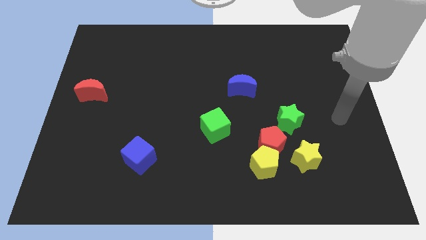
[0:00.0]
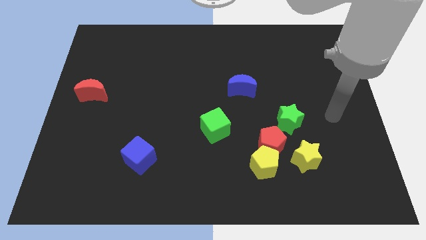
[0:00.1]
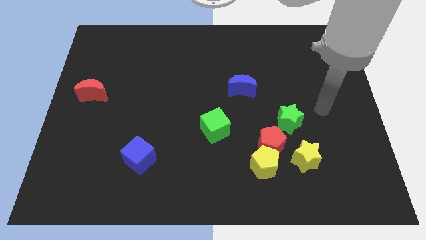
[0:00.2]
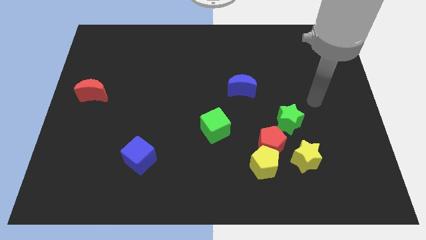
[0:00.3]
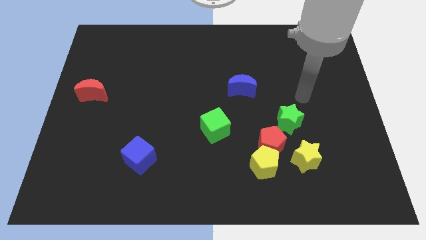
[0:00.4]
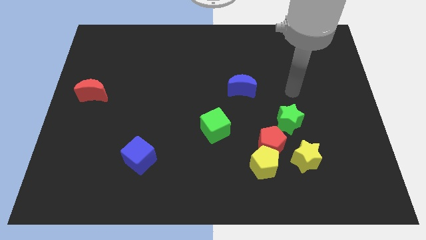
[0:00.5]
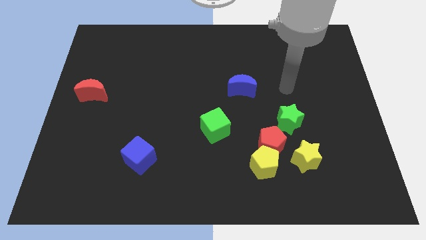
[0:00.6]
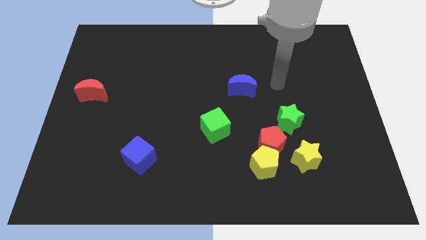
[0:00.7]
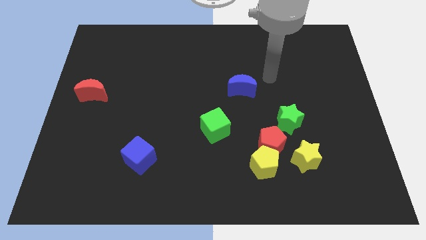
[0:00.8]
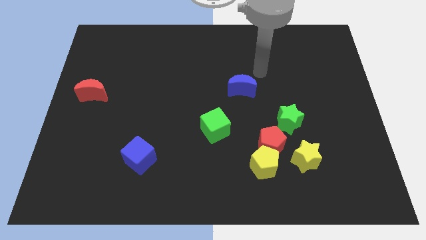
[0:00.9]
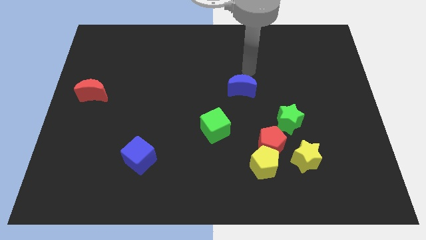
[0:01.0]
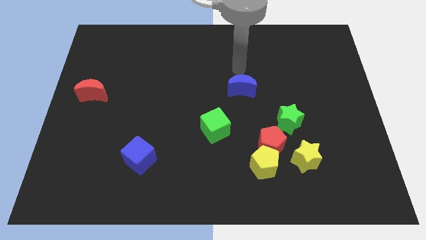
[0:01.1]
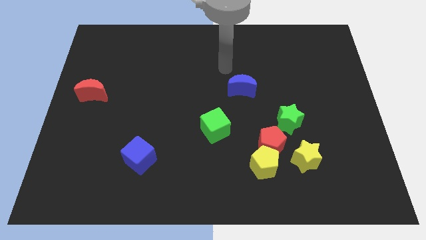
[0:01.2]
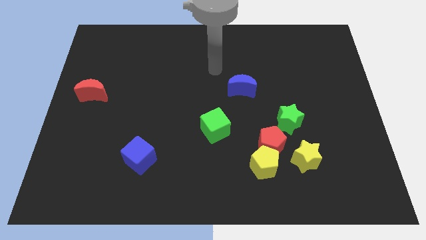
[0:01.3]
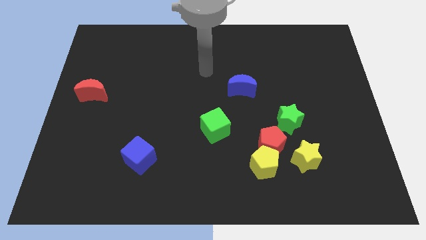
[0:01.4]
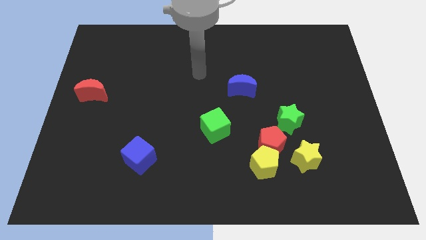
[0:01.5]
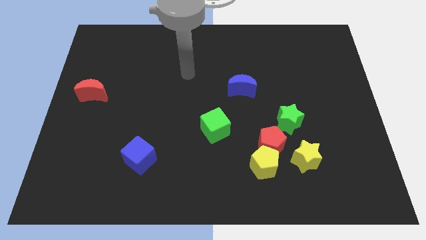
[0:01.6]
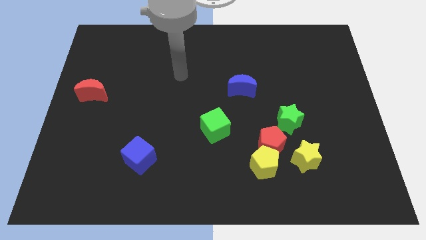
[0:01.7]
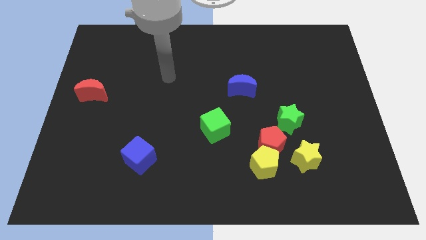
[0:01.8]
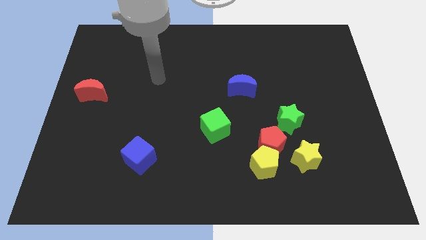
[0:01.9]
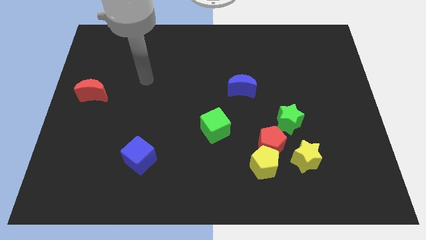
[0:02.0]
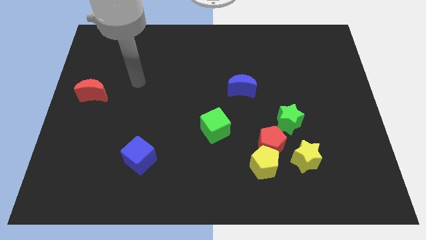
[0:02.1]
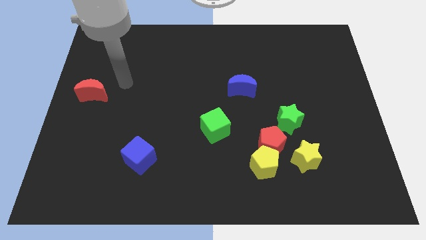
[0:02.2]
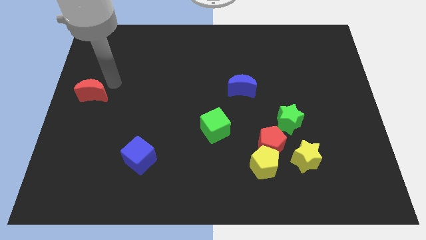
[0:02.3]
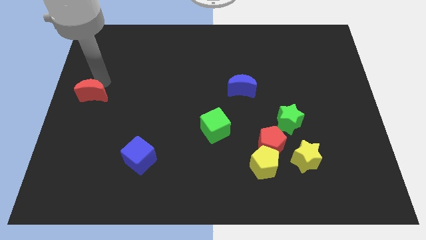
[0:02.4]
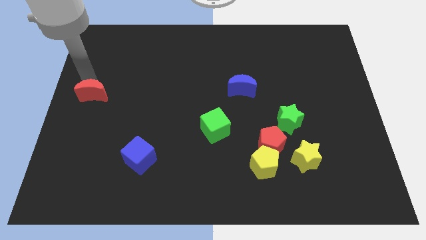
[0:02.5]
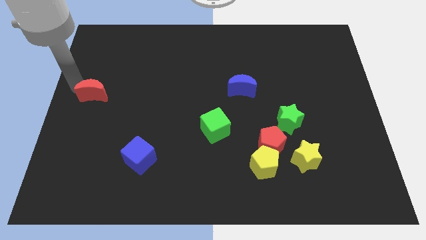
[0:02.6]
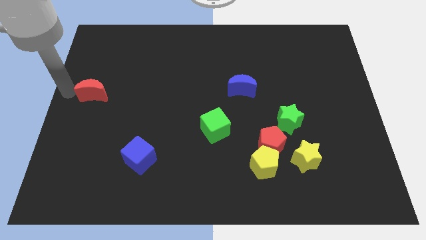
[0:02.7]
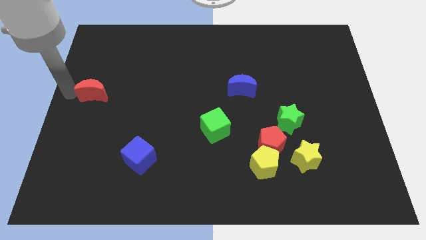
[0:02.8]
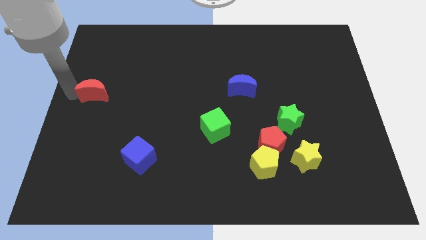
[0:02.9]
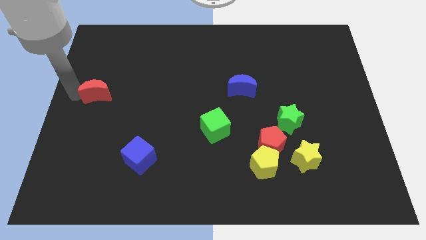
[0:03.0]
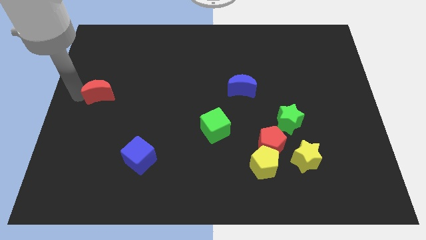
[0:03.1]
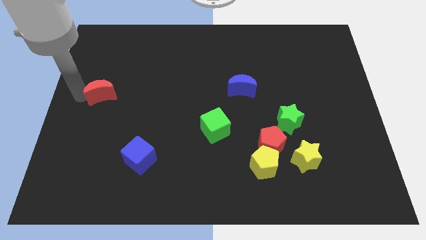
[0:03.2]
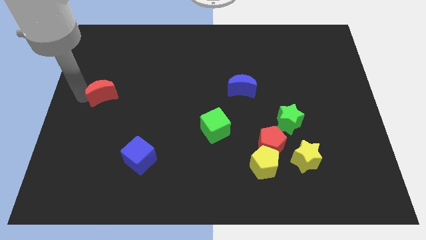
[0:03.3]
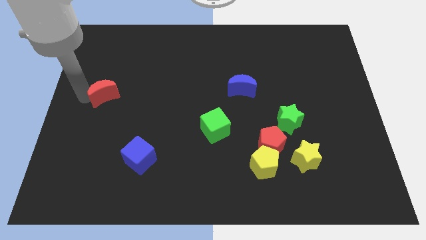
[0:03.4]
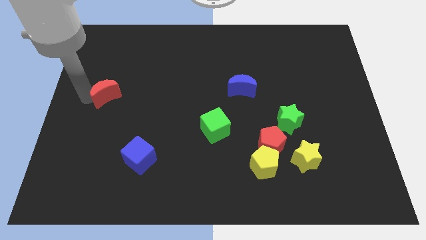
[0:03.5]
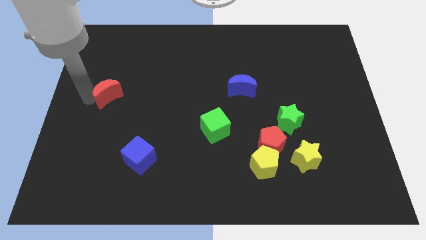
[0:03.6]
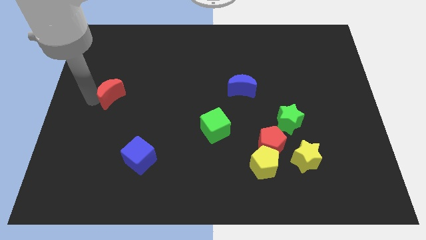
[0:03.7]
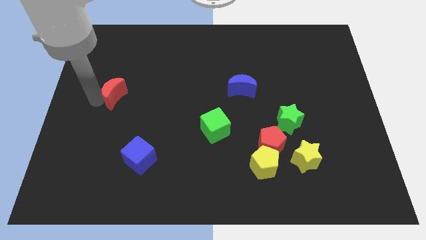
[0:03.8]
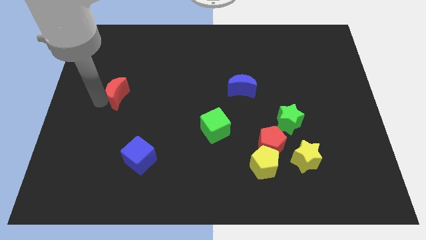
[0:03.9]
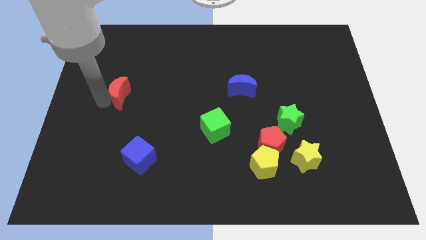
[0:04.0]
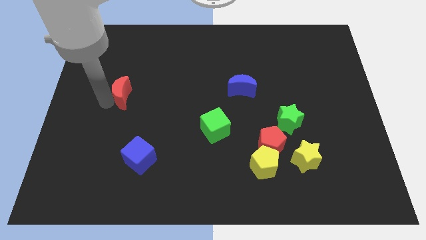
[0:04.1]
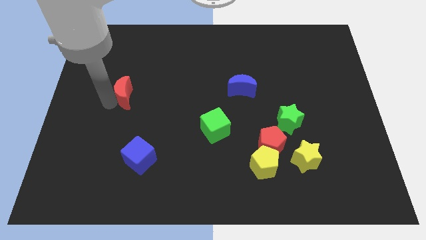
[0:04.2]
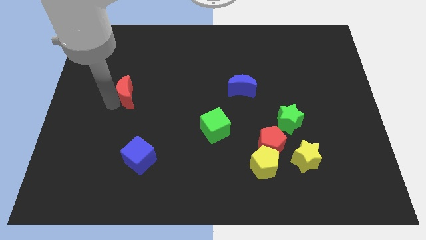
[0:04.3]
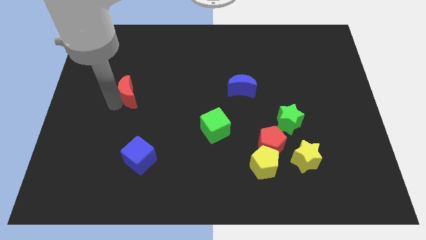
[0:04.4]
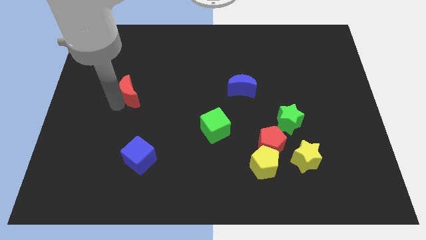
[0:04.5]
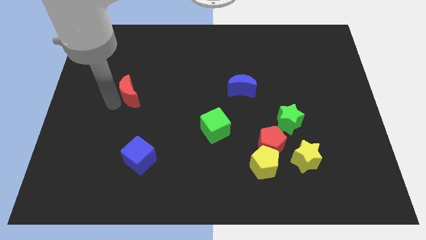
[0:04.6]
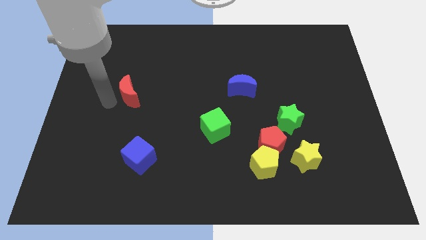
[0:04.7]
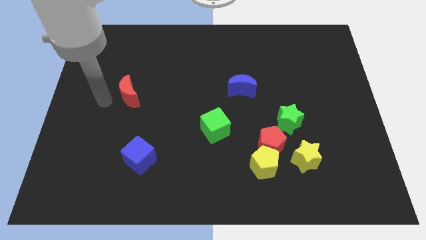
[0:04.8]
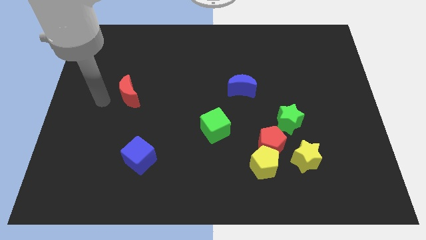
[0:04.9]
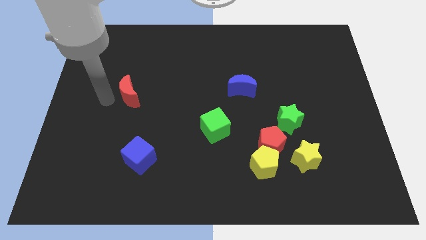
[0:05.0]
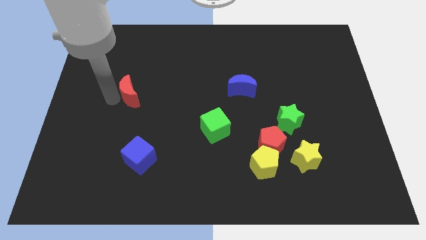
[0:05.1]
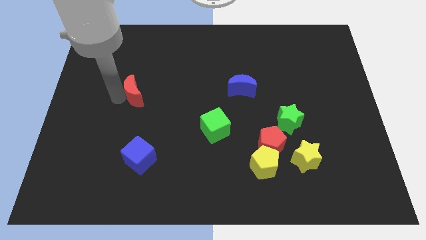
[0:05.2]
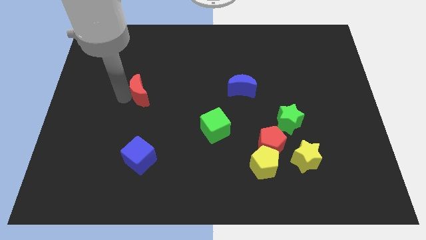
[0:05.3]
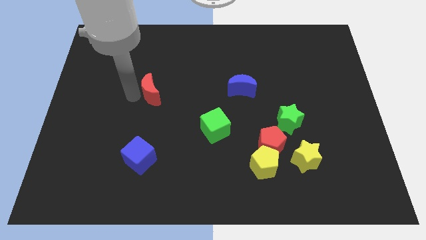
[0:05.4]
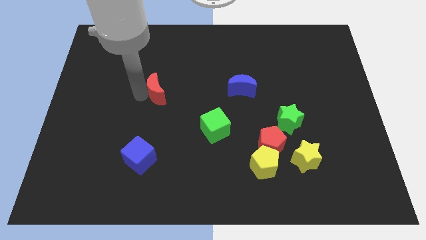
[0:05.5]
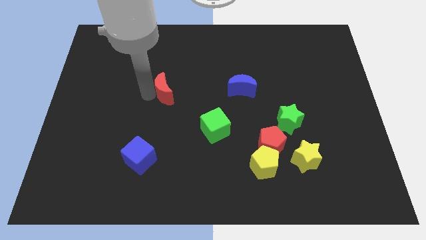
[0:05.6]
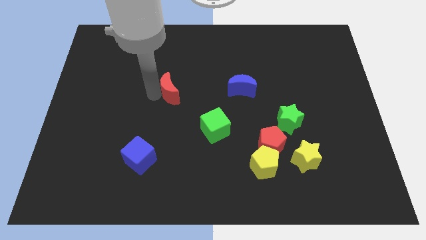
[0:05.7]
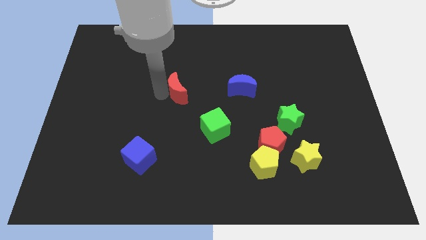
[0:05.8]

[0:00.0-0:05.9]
move the red moon to the left of the blue moon

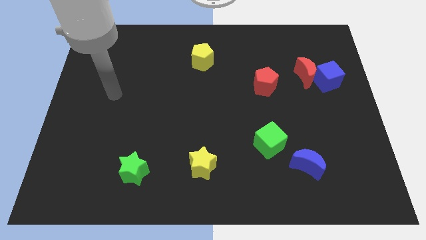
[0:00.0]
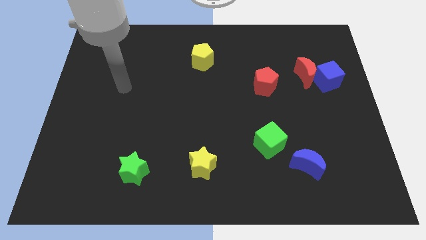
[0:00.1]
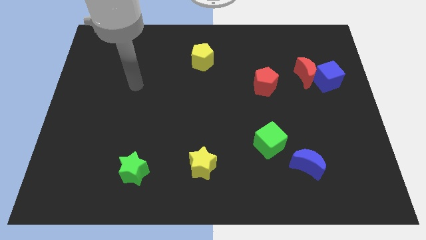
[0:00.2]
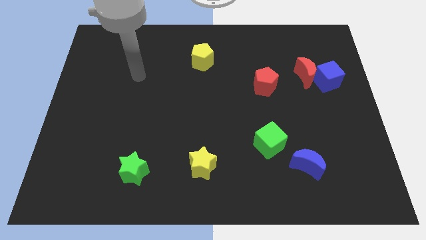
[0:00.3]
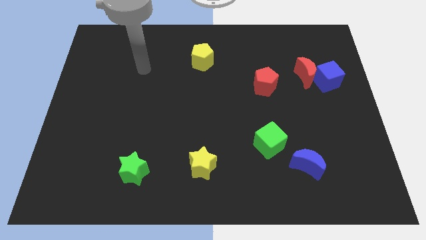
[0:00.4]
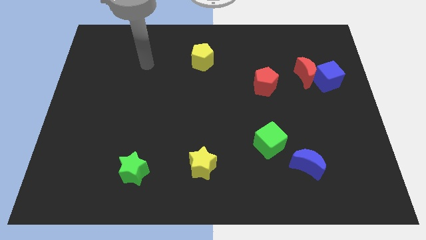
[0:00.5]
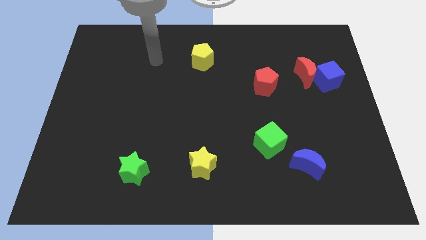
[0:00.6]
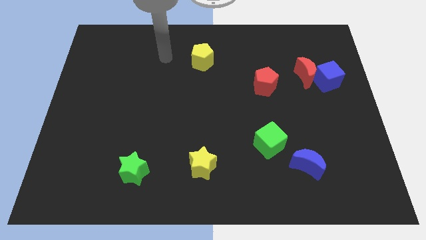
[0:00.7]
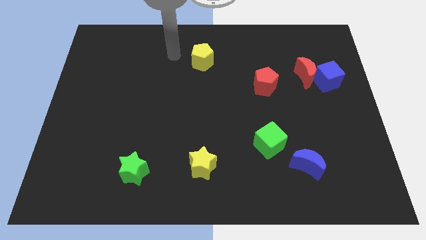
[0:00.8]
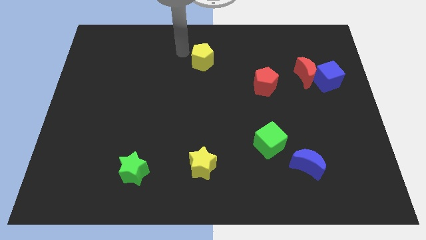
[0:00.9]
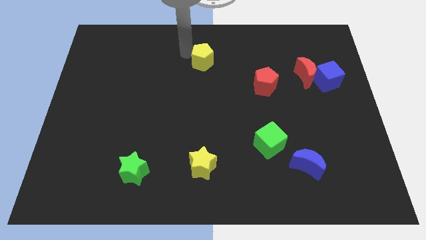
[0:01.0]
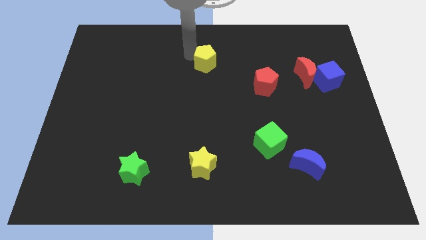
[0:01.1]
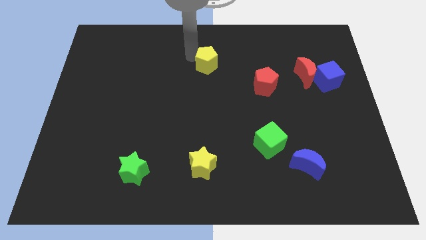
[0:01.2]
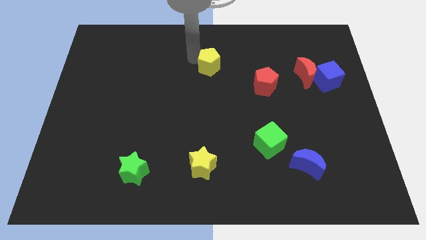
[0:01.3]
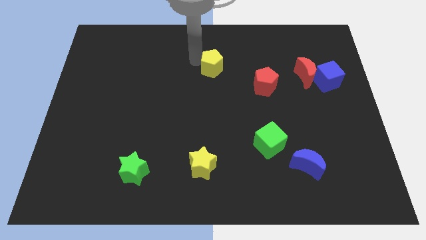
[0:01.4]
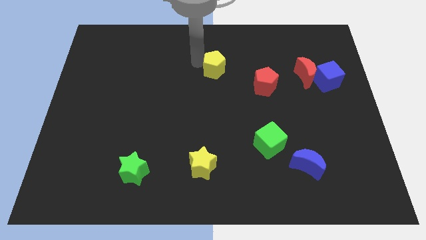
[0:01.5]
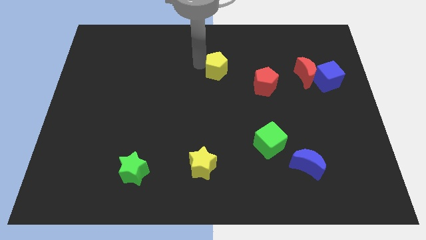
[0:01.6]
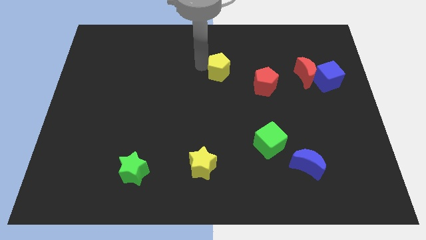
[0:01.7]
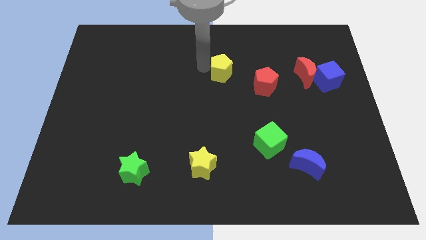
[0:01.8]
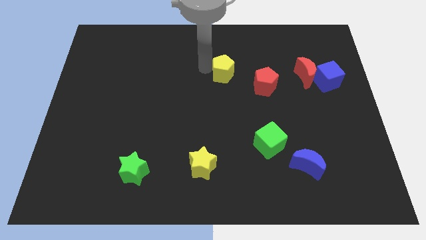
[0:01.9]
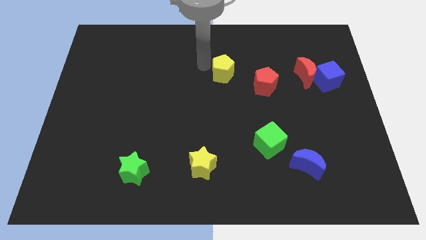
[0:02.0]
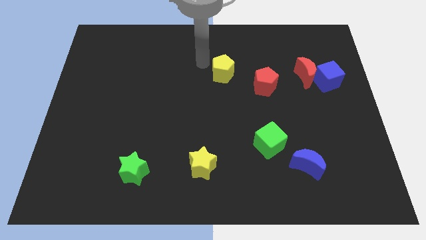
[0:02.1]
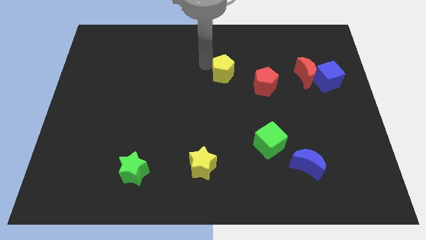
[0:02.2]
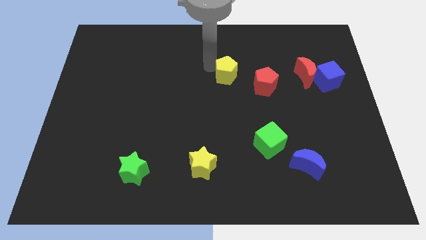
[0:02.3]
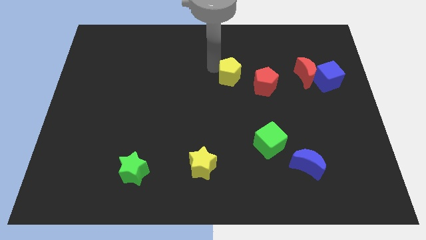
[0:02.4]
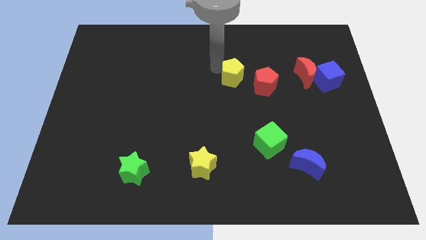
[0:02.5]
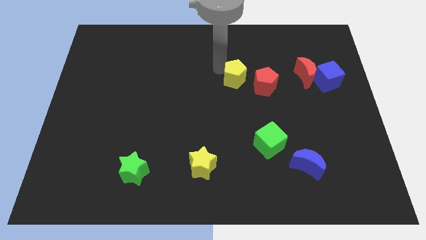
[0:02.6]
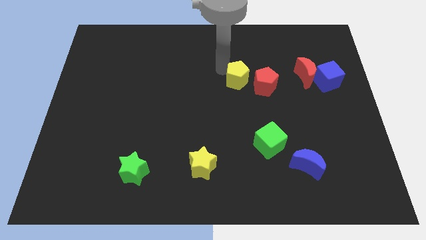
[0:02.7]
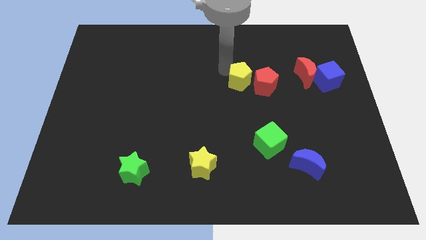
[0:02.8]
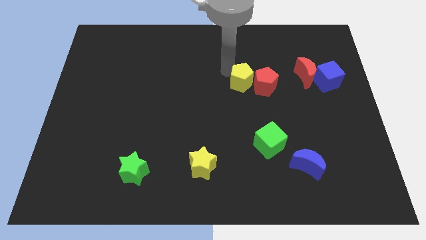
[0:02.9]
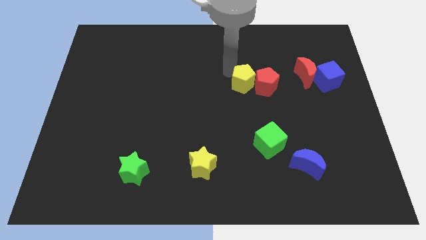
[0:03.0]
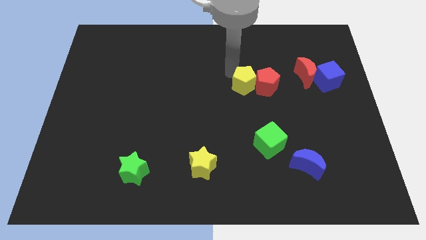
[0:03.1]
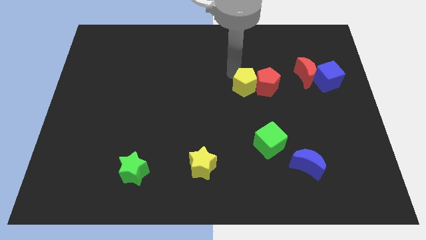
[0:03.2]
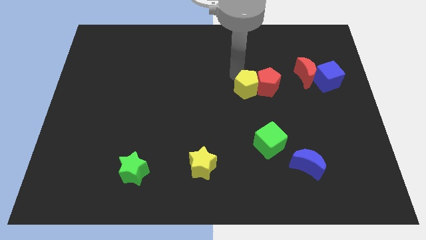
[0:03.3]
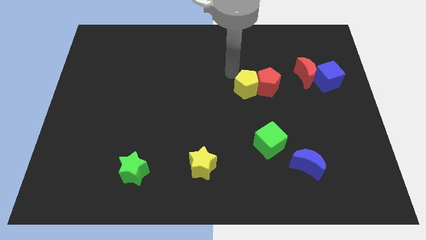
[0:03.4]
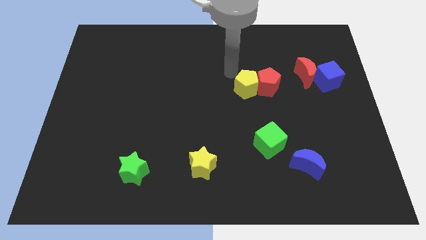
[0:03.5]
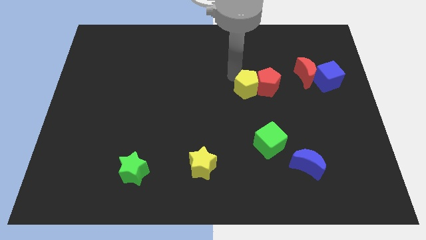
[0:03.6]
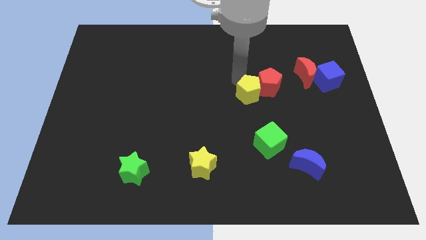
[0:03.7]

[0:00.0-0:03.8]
slide the yellow pentagon to the top side of the green cube
